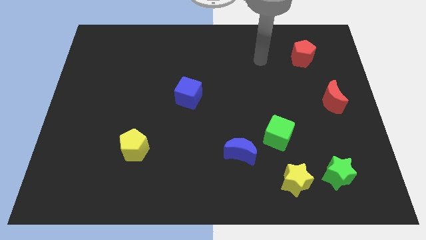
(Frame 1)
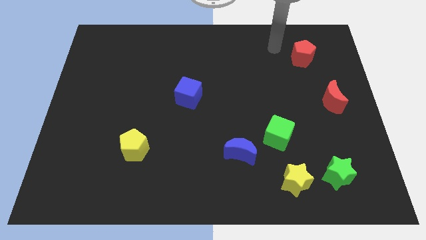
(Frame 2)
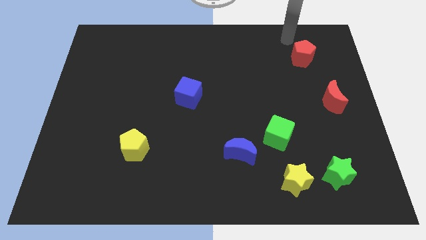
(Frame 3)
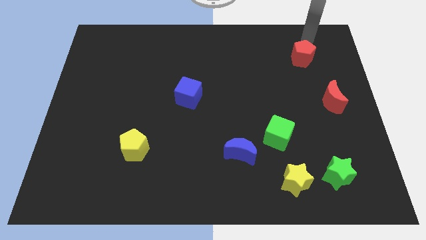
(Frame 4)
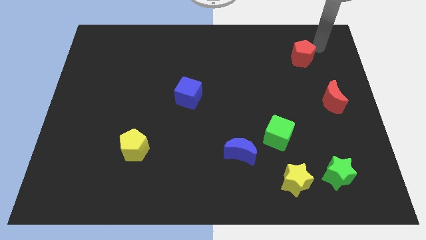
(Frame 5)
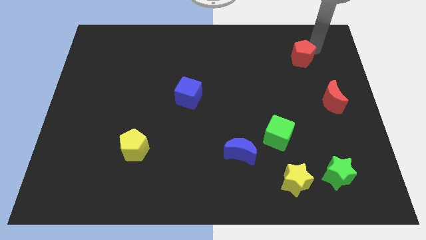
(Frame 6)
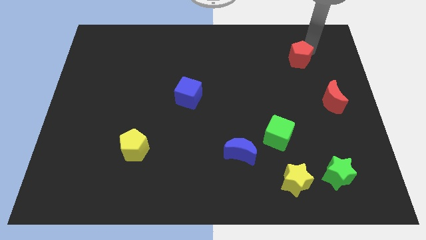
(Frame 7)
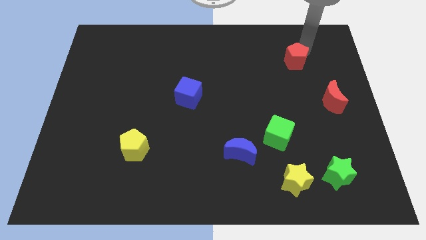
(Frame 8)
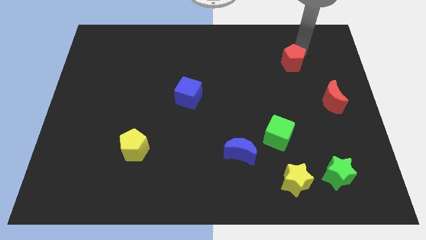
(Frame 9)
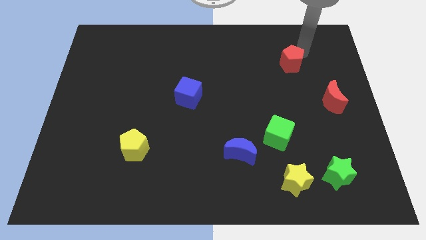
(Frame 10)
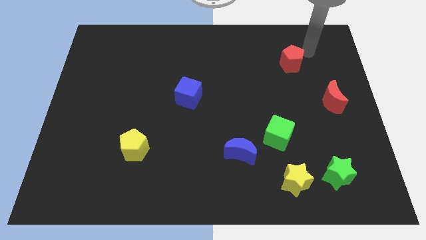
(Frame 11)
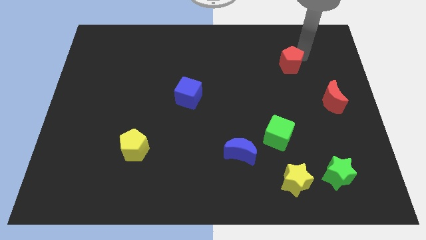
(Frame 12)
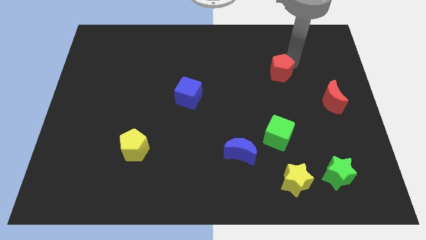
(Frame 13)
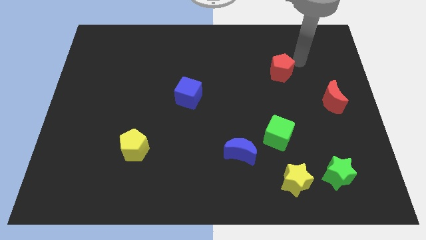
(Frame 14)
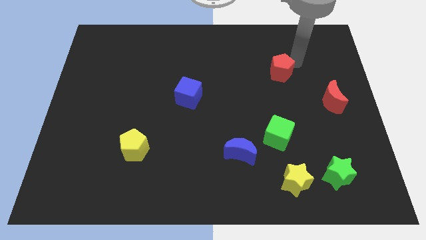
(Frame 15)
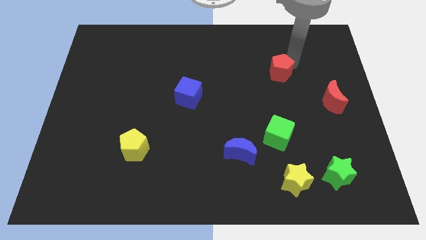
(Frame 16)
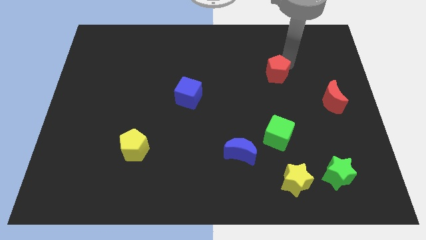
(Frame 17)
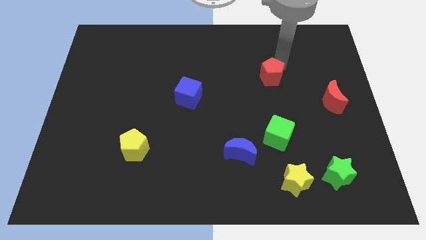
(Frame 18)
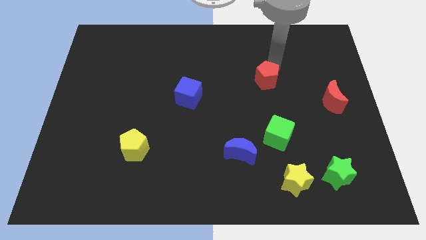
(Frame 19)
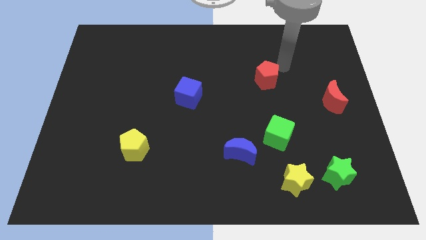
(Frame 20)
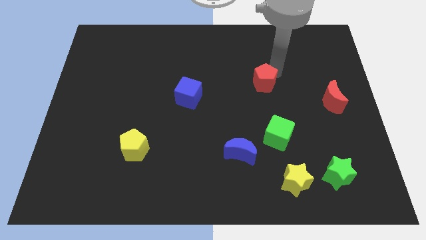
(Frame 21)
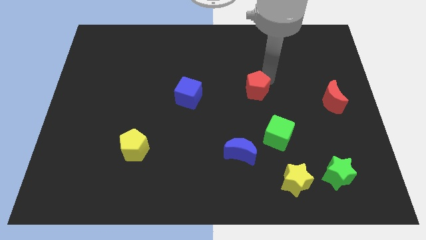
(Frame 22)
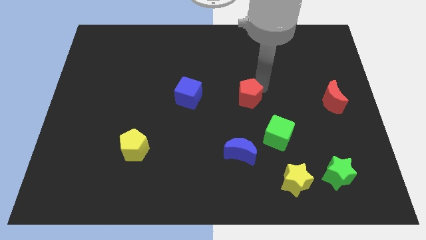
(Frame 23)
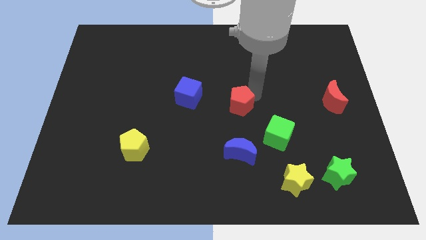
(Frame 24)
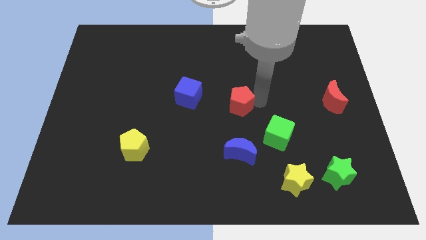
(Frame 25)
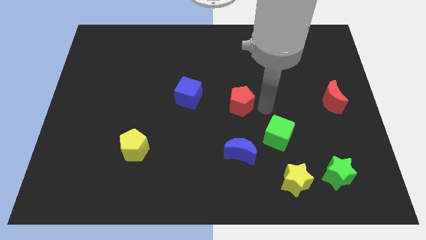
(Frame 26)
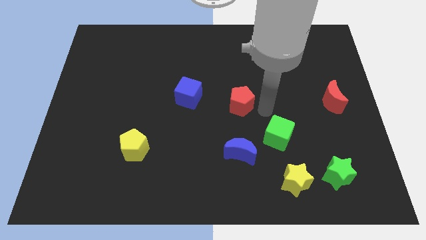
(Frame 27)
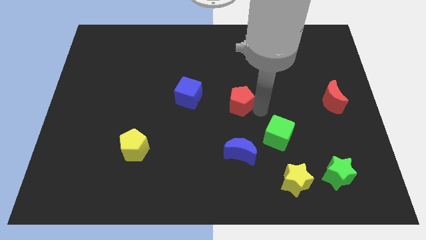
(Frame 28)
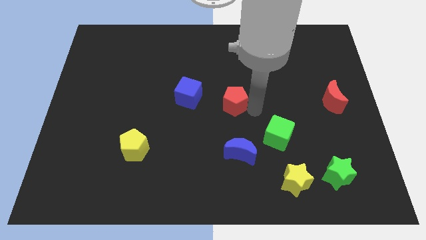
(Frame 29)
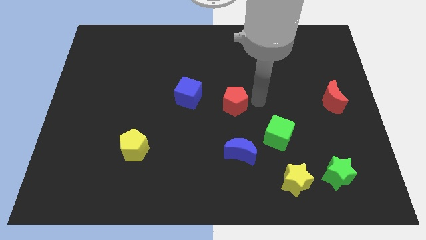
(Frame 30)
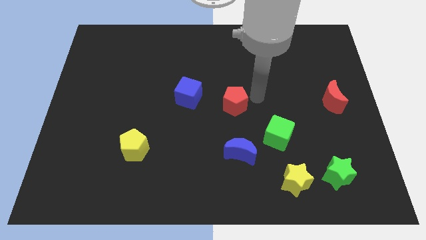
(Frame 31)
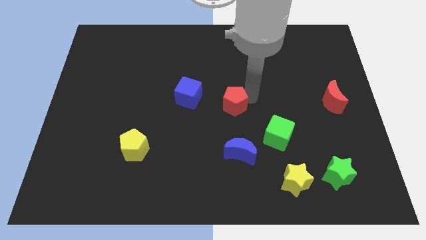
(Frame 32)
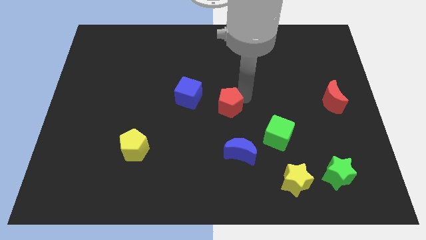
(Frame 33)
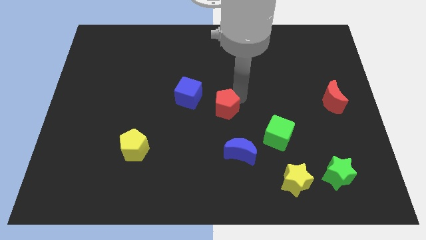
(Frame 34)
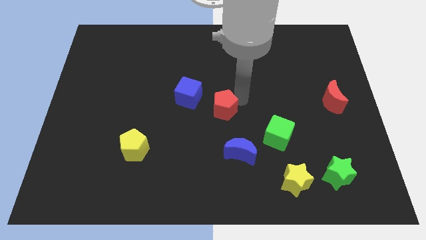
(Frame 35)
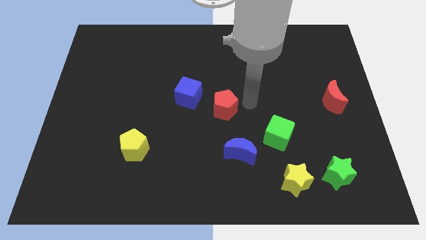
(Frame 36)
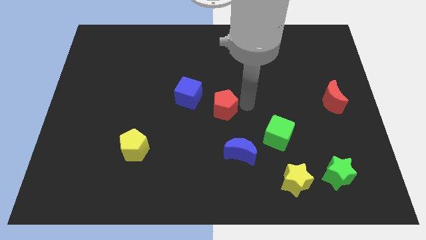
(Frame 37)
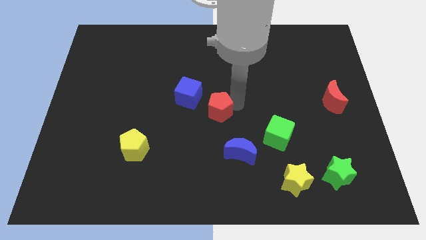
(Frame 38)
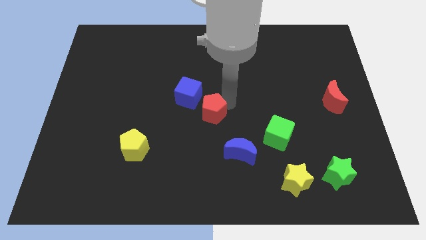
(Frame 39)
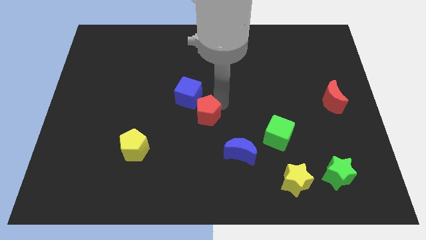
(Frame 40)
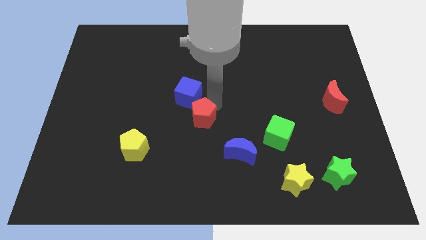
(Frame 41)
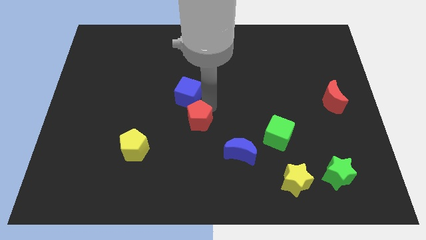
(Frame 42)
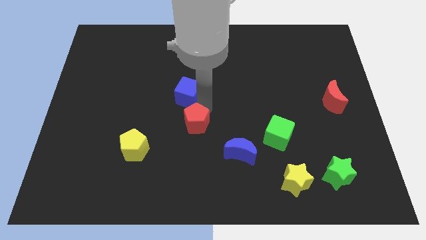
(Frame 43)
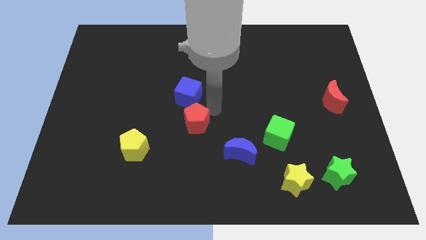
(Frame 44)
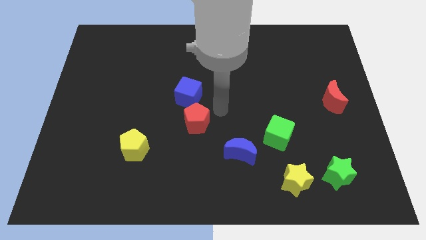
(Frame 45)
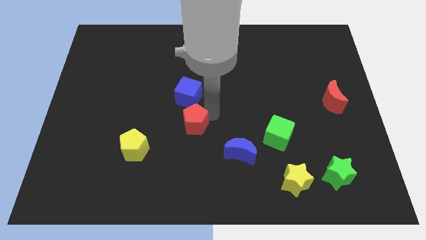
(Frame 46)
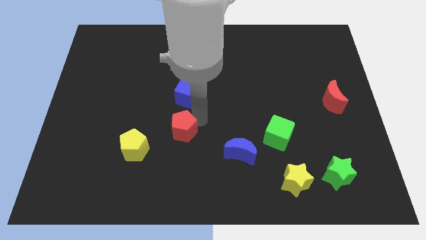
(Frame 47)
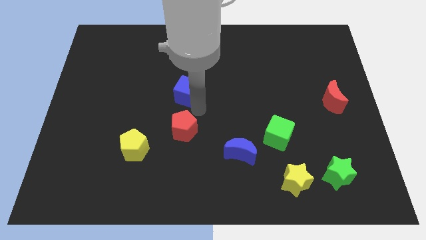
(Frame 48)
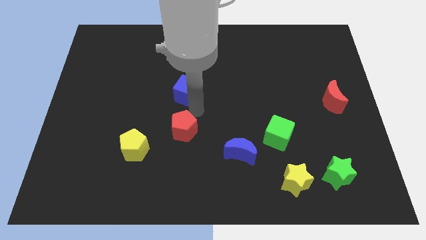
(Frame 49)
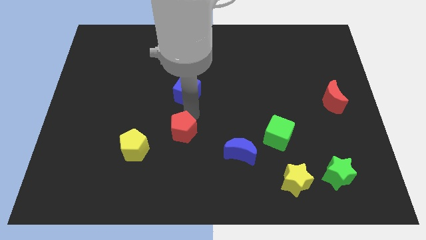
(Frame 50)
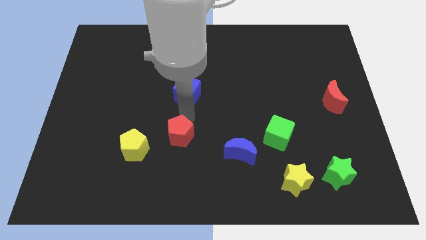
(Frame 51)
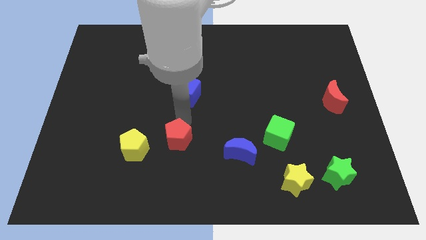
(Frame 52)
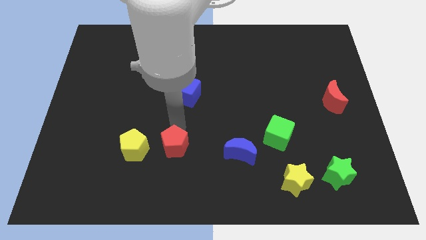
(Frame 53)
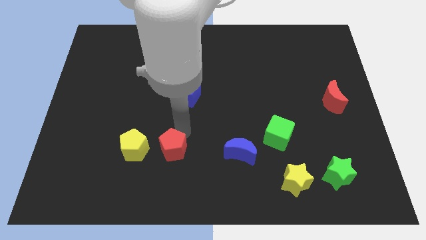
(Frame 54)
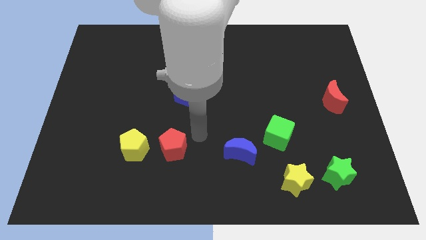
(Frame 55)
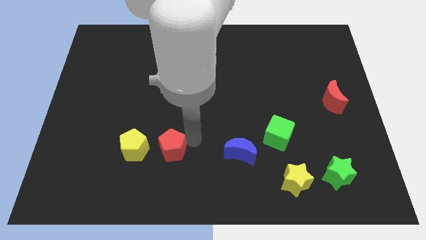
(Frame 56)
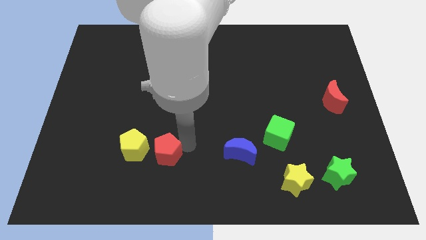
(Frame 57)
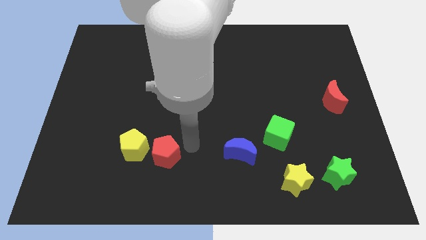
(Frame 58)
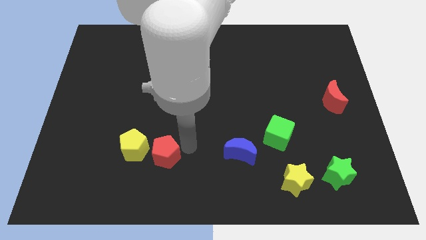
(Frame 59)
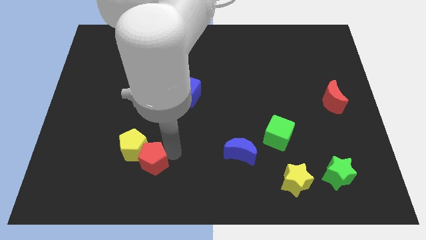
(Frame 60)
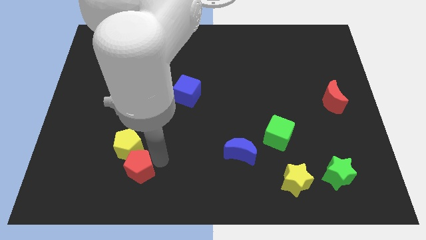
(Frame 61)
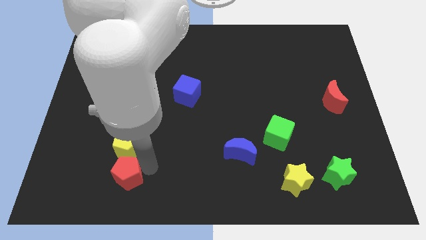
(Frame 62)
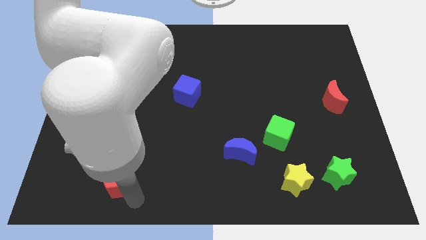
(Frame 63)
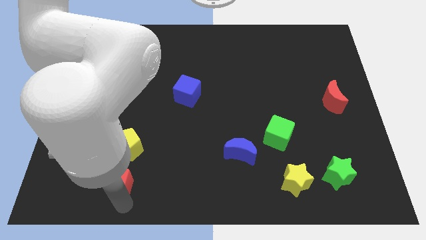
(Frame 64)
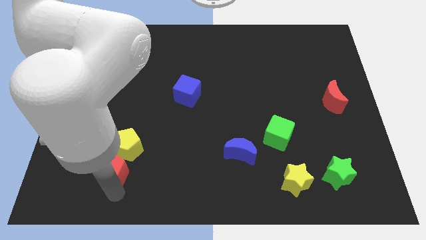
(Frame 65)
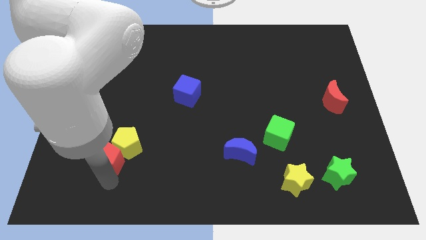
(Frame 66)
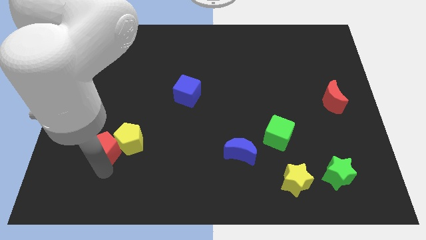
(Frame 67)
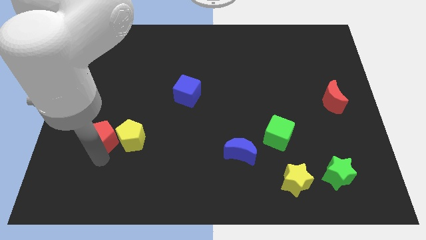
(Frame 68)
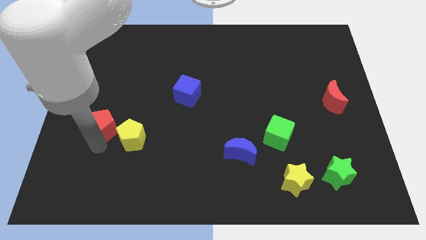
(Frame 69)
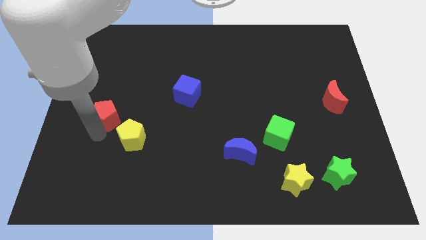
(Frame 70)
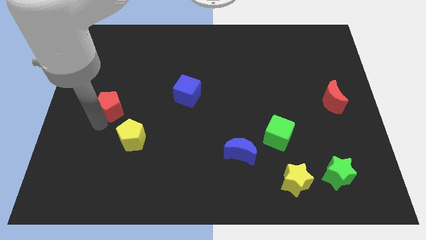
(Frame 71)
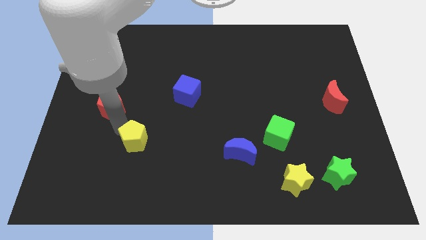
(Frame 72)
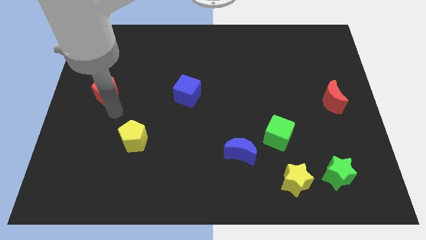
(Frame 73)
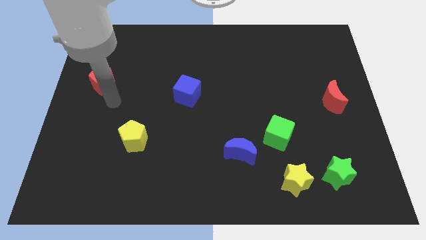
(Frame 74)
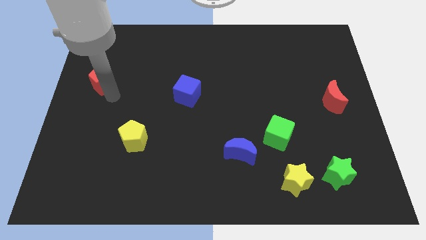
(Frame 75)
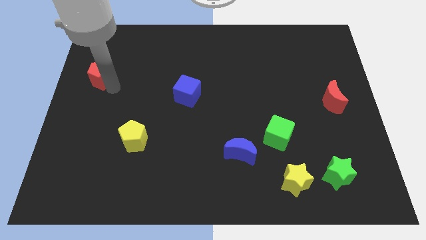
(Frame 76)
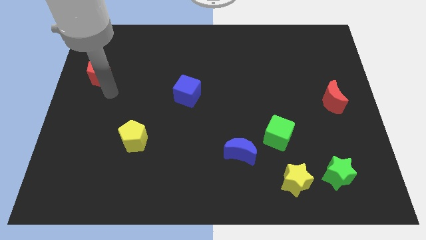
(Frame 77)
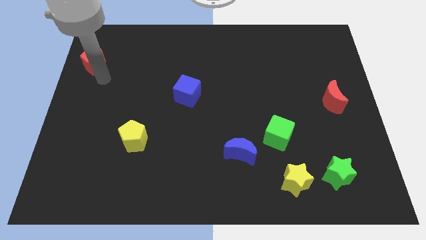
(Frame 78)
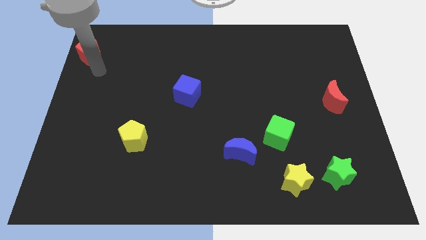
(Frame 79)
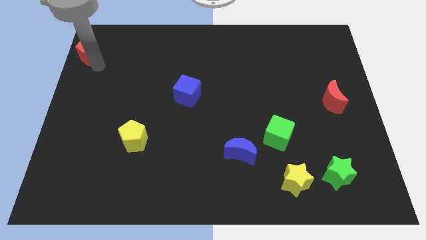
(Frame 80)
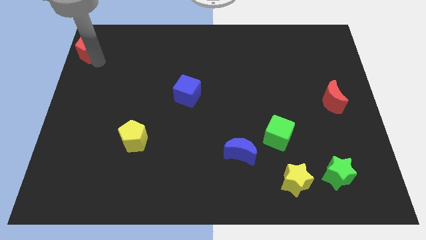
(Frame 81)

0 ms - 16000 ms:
push the red pentagon to the top left of the board
